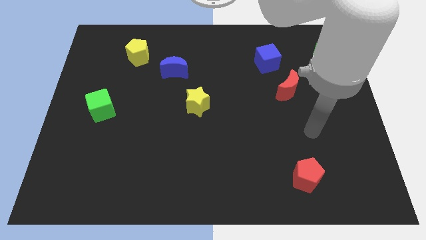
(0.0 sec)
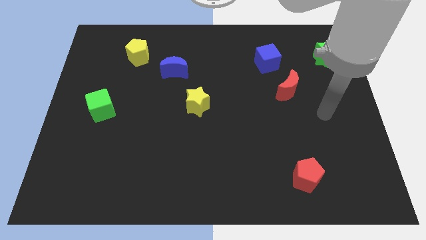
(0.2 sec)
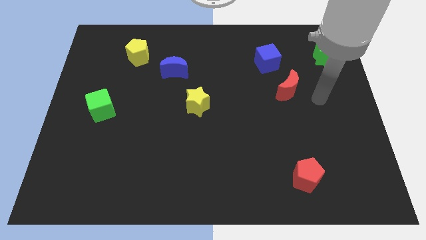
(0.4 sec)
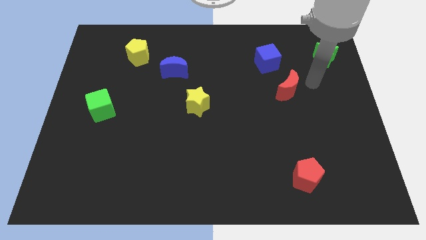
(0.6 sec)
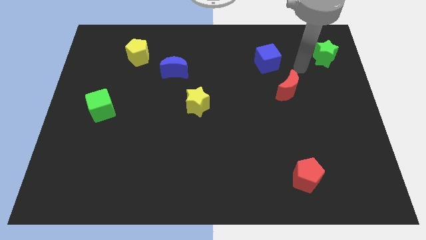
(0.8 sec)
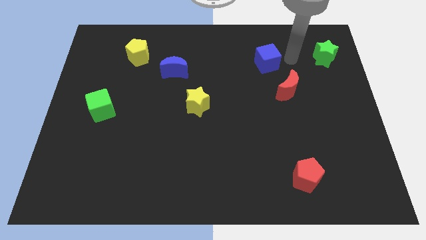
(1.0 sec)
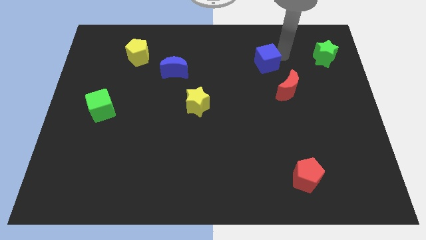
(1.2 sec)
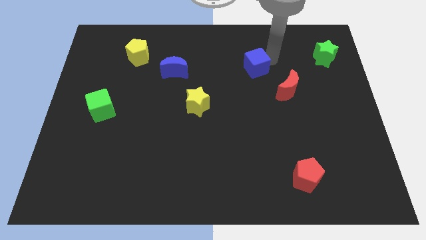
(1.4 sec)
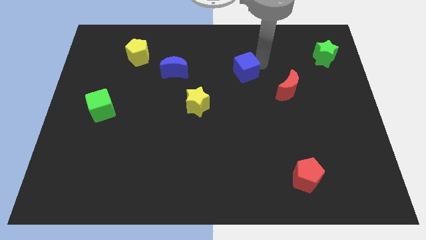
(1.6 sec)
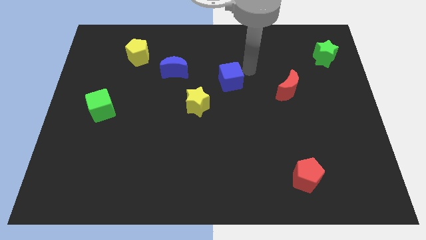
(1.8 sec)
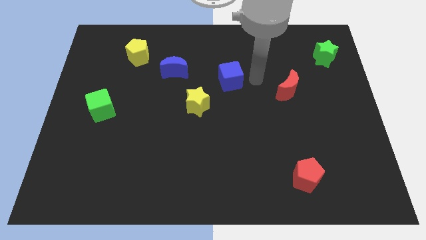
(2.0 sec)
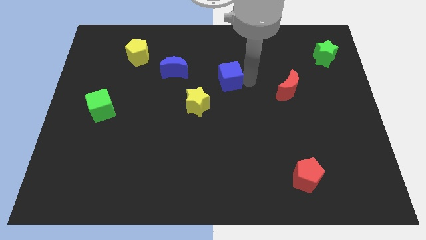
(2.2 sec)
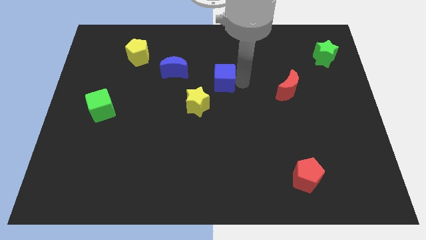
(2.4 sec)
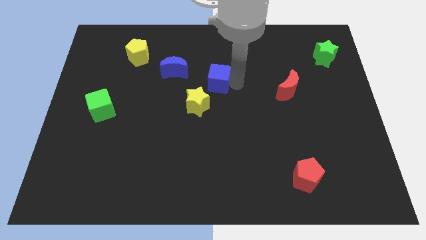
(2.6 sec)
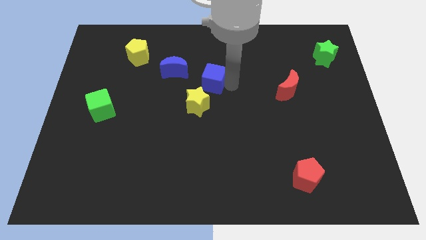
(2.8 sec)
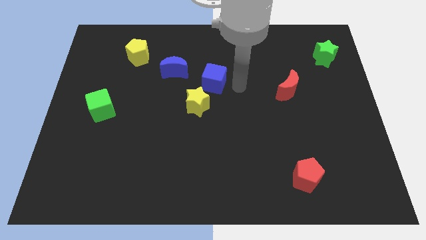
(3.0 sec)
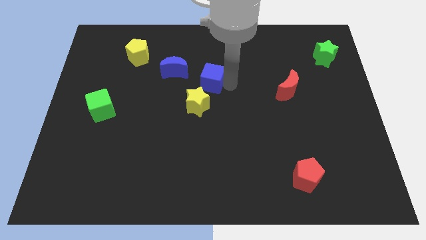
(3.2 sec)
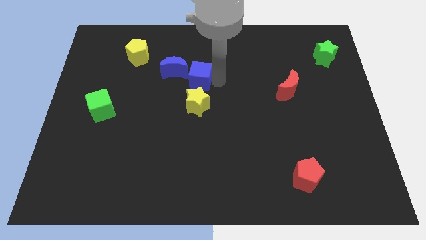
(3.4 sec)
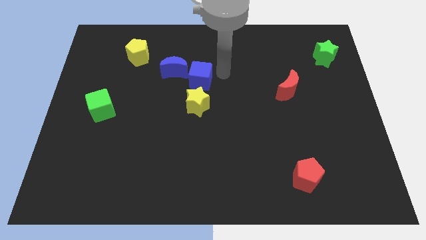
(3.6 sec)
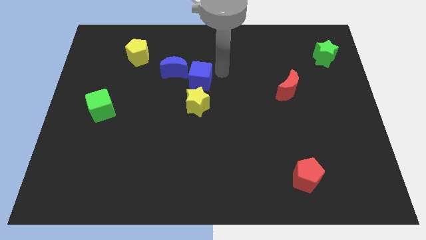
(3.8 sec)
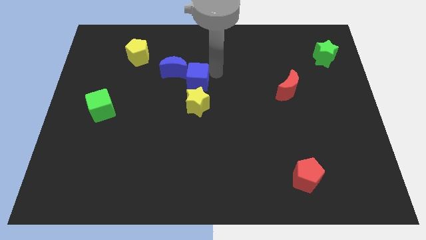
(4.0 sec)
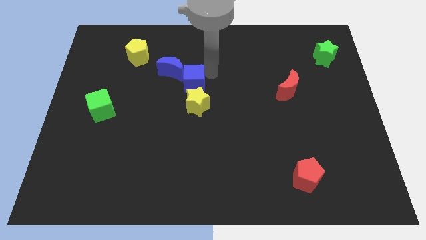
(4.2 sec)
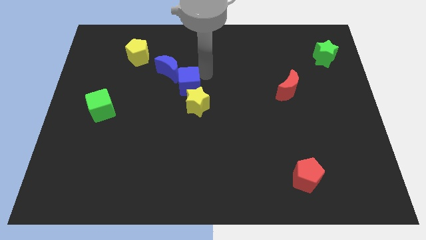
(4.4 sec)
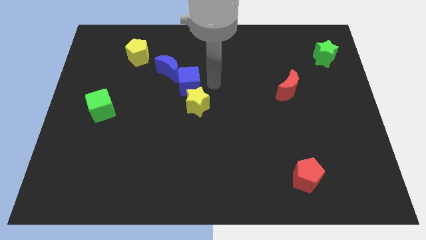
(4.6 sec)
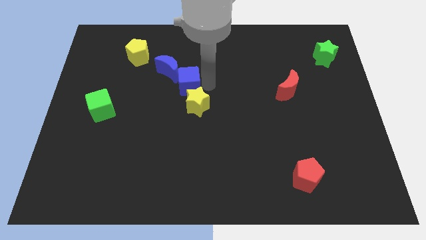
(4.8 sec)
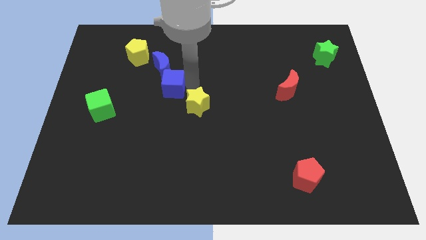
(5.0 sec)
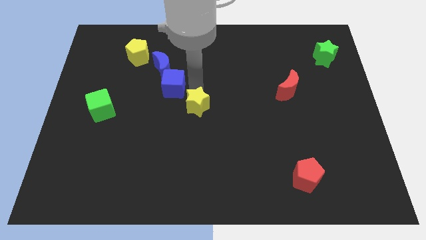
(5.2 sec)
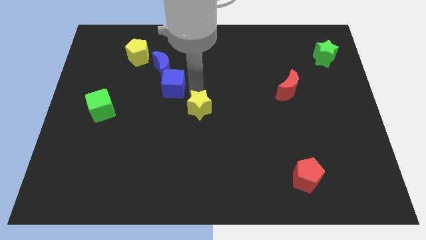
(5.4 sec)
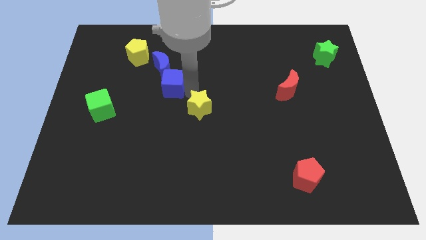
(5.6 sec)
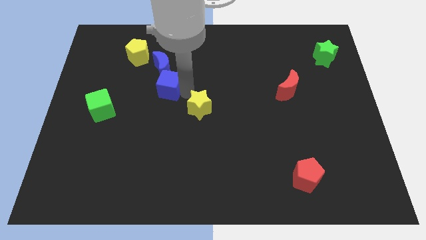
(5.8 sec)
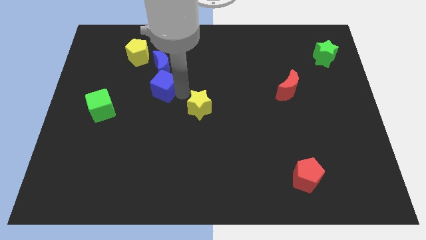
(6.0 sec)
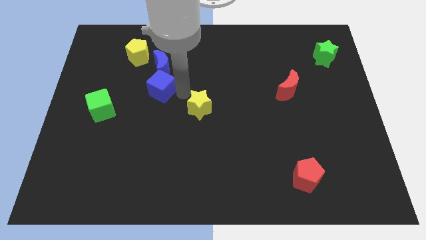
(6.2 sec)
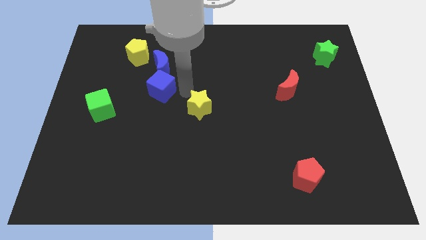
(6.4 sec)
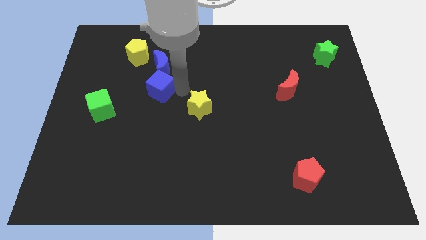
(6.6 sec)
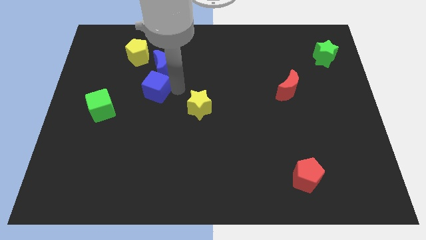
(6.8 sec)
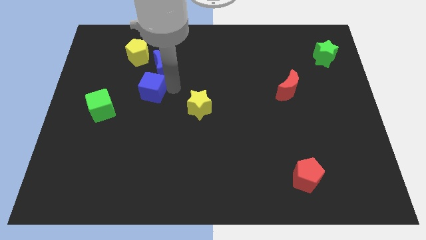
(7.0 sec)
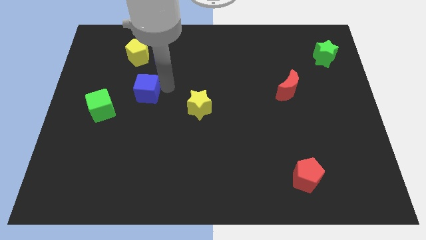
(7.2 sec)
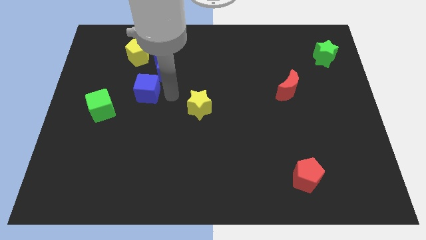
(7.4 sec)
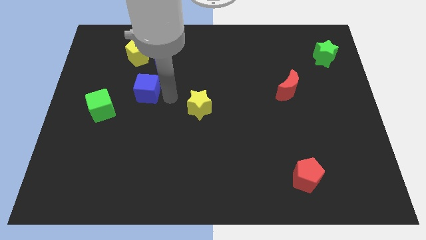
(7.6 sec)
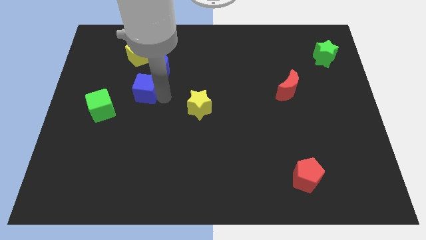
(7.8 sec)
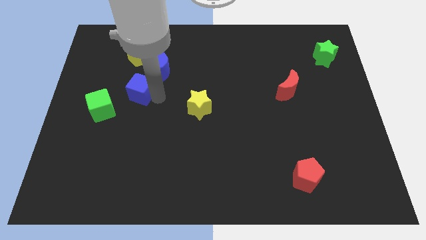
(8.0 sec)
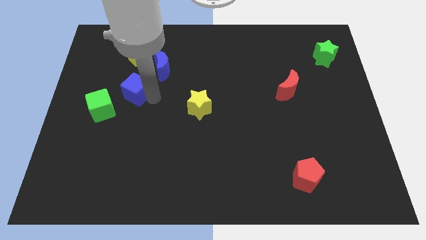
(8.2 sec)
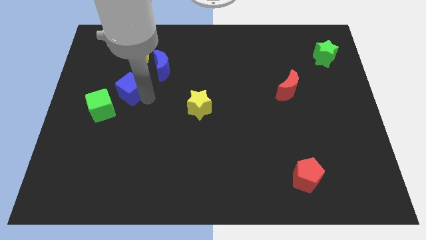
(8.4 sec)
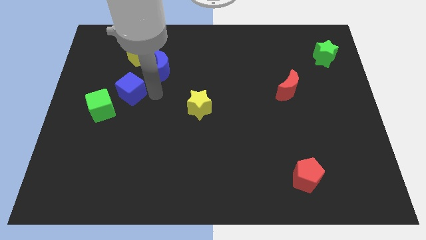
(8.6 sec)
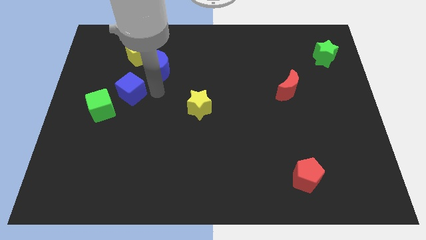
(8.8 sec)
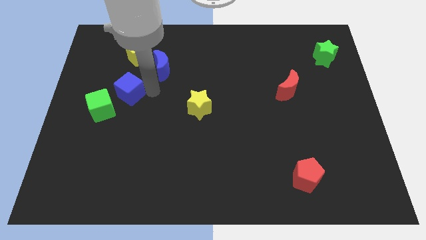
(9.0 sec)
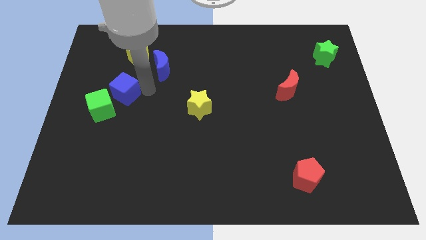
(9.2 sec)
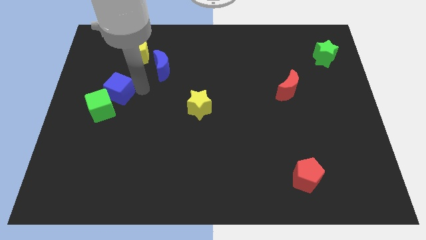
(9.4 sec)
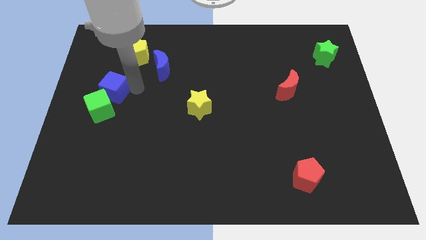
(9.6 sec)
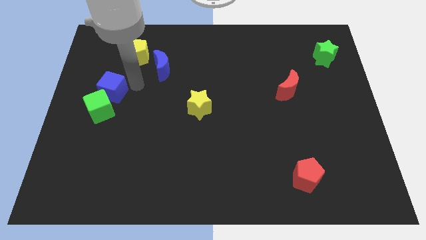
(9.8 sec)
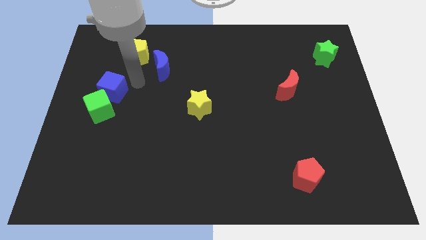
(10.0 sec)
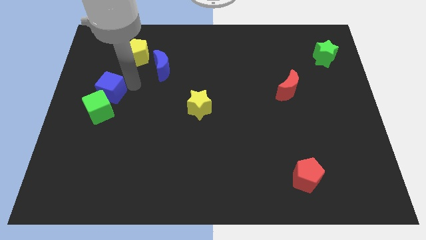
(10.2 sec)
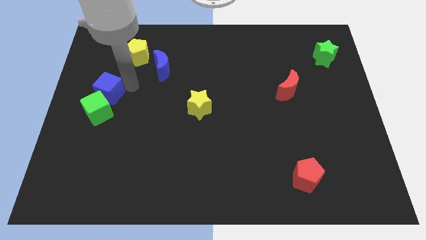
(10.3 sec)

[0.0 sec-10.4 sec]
slide the blue cube to the left side of the board
